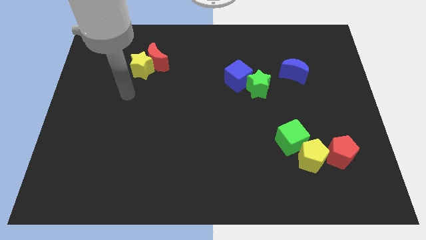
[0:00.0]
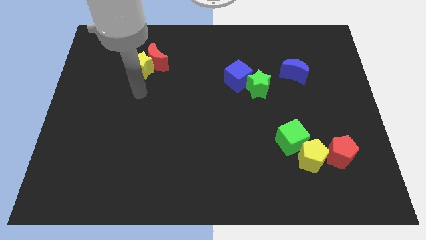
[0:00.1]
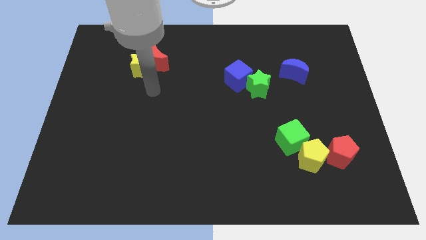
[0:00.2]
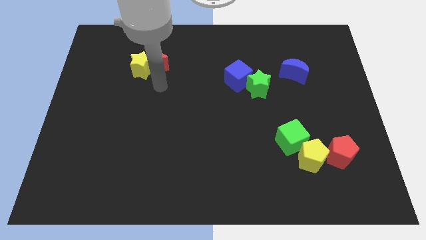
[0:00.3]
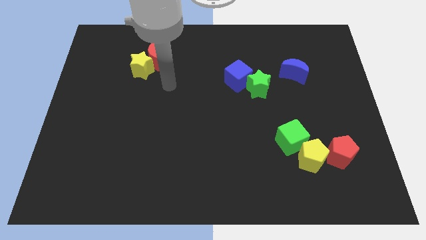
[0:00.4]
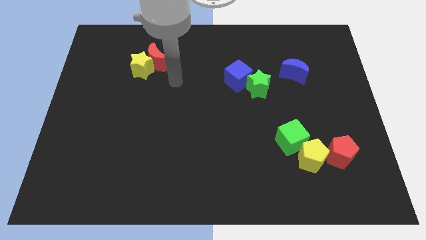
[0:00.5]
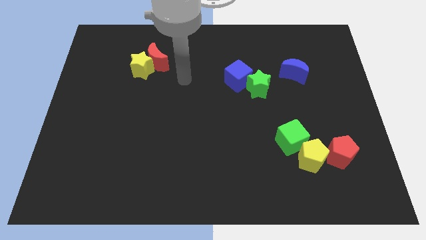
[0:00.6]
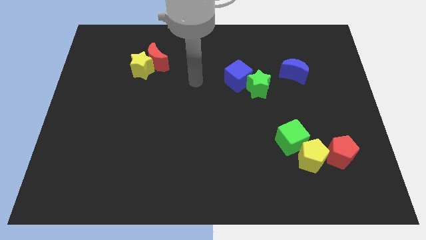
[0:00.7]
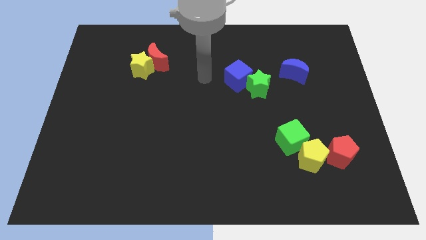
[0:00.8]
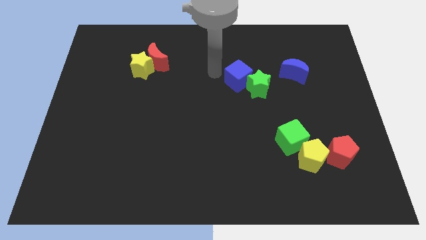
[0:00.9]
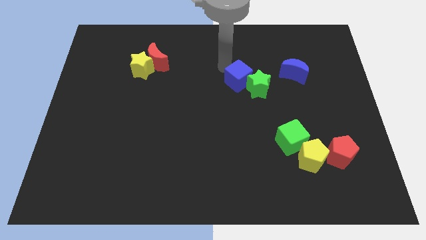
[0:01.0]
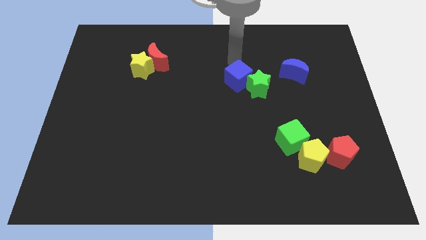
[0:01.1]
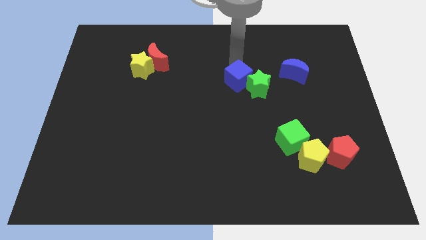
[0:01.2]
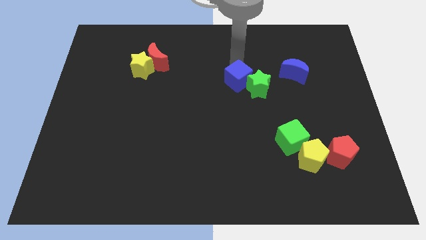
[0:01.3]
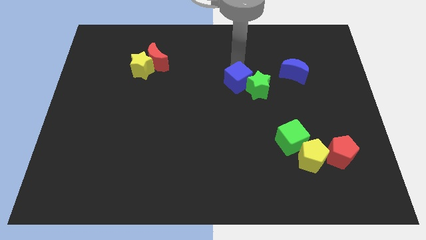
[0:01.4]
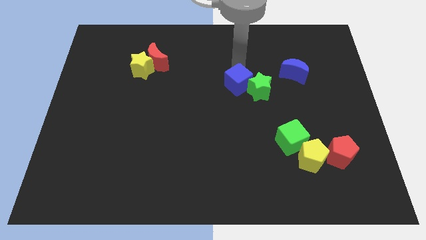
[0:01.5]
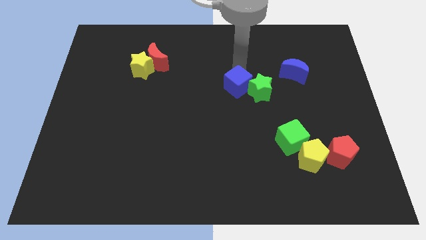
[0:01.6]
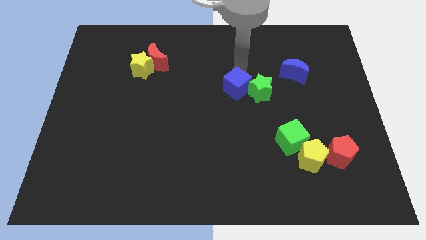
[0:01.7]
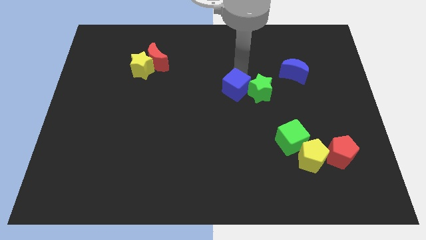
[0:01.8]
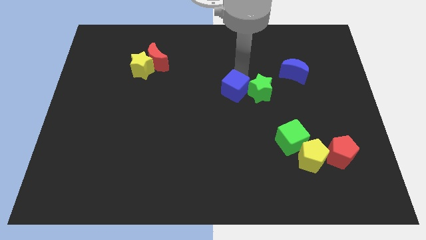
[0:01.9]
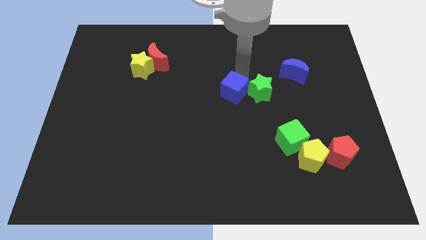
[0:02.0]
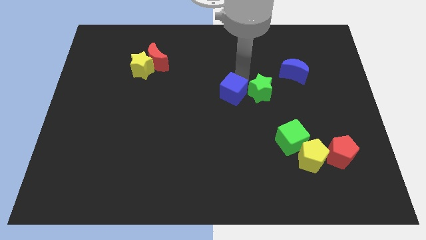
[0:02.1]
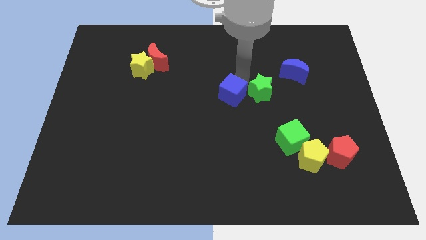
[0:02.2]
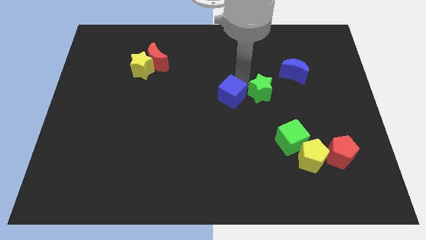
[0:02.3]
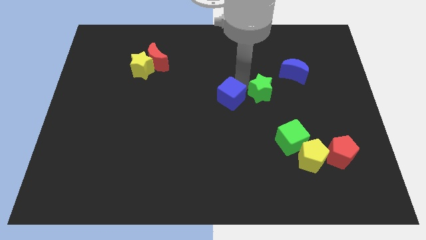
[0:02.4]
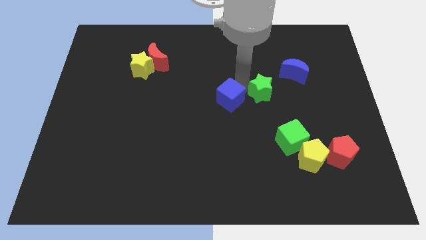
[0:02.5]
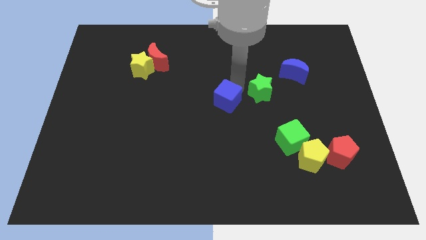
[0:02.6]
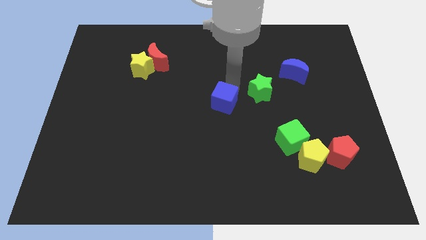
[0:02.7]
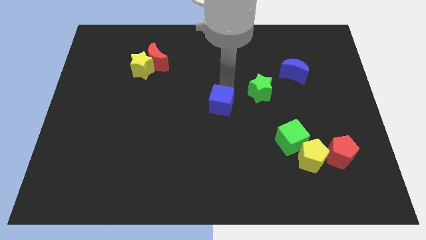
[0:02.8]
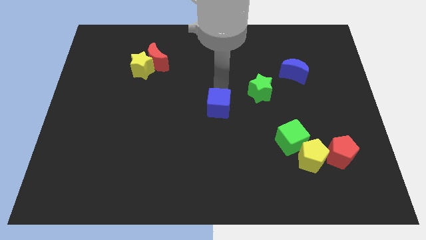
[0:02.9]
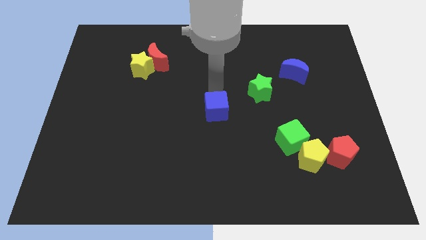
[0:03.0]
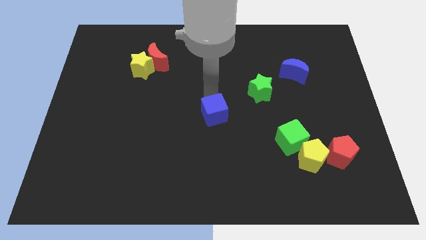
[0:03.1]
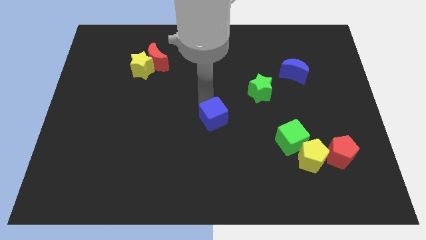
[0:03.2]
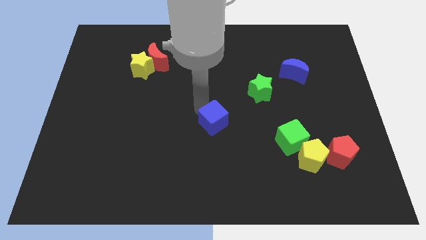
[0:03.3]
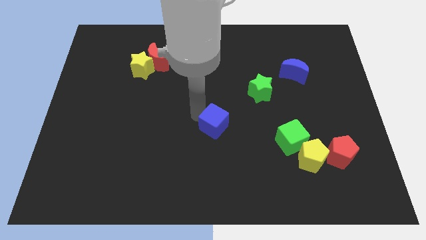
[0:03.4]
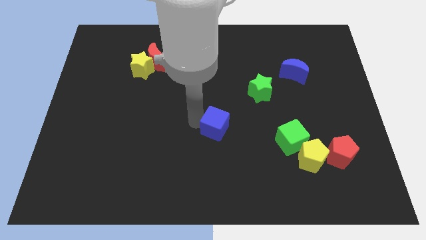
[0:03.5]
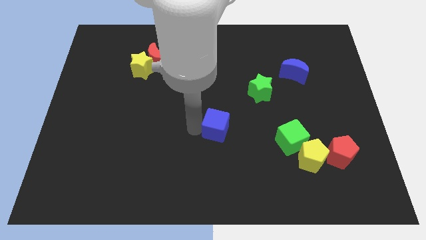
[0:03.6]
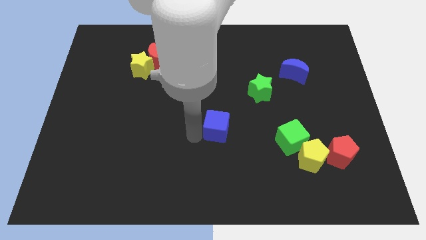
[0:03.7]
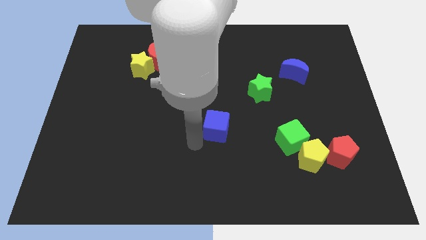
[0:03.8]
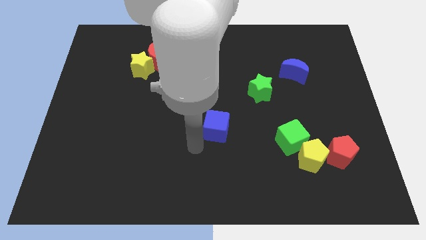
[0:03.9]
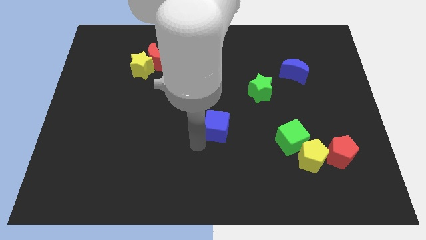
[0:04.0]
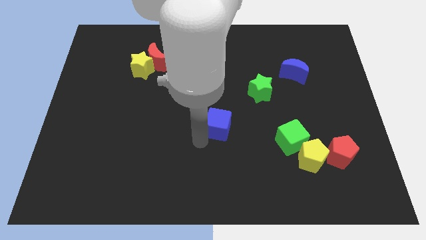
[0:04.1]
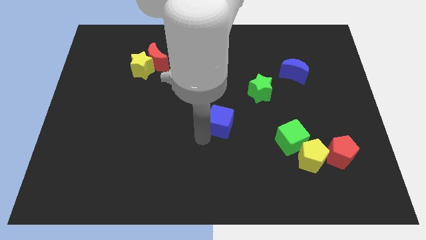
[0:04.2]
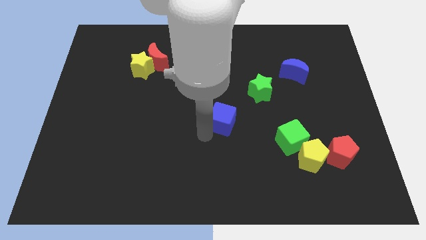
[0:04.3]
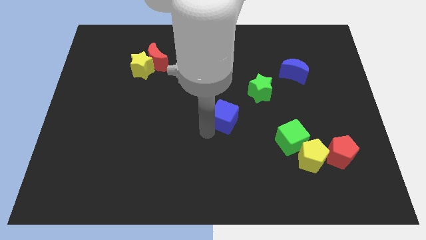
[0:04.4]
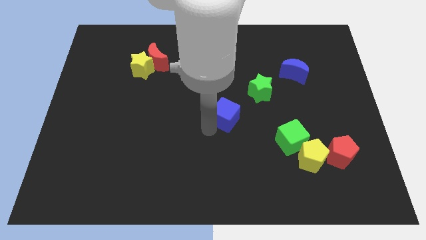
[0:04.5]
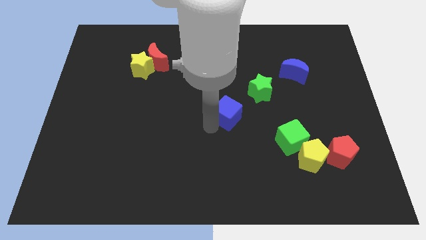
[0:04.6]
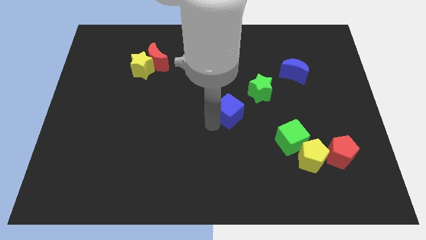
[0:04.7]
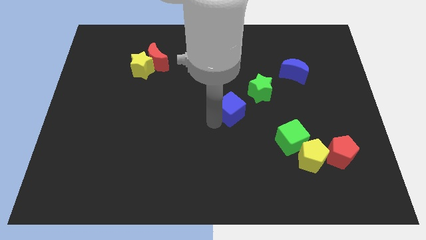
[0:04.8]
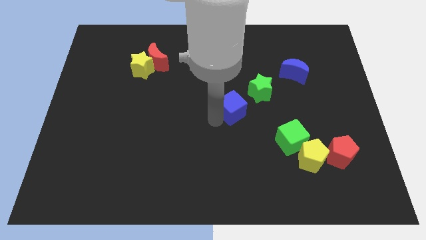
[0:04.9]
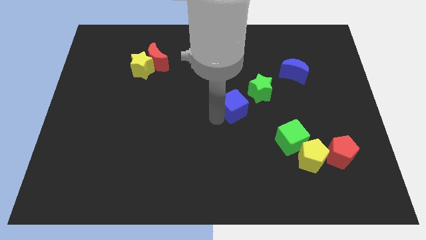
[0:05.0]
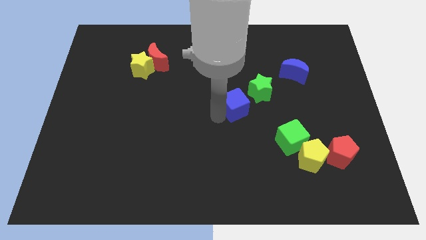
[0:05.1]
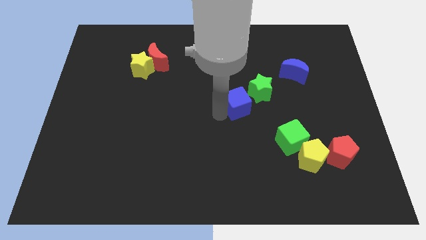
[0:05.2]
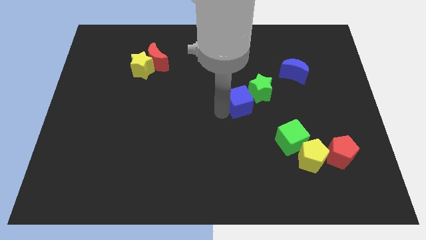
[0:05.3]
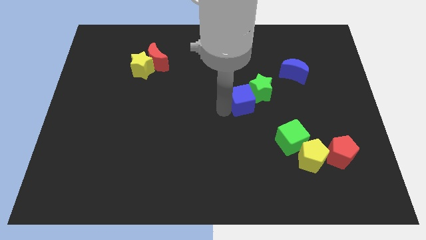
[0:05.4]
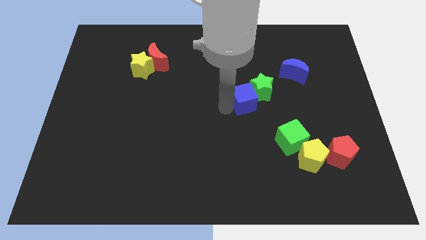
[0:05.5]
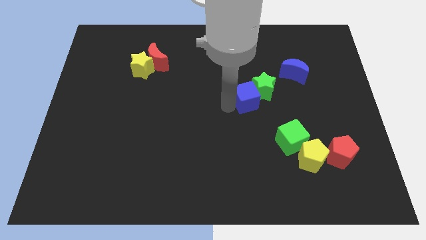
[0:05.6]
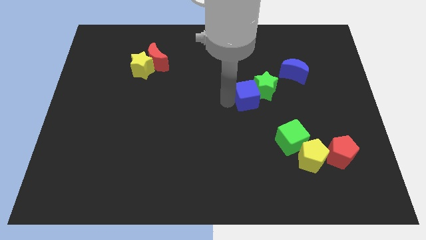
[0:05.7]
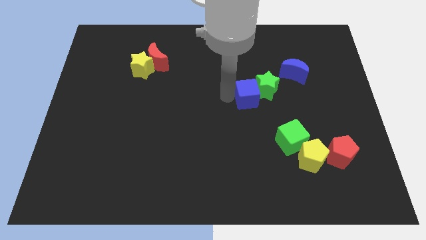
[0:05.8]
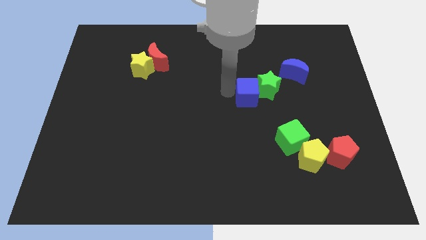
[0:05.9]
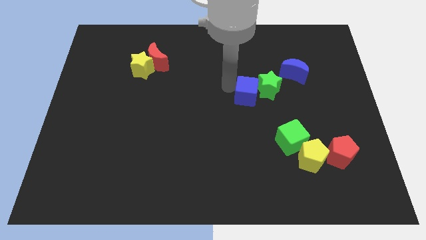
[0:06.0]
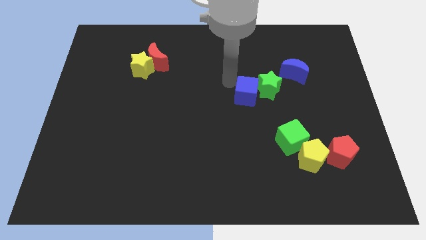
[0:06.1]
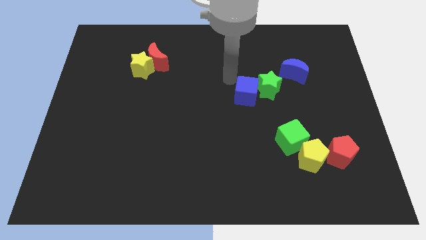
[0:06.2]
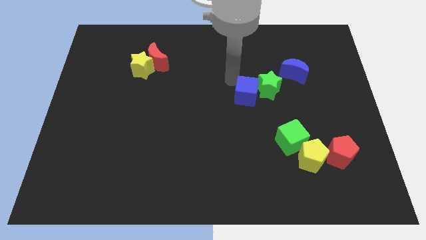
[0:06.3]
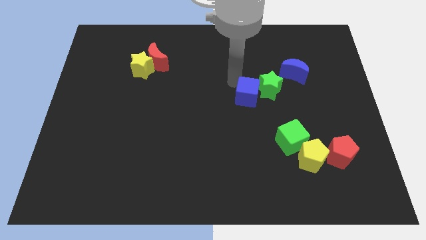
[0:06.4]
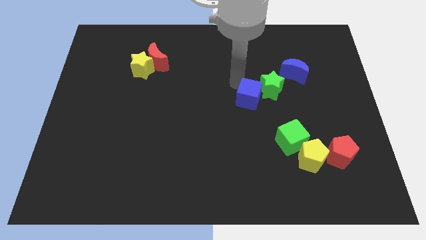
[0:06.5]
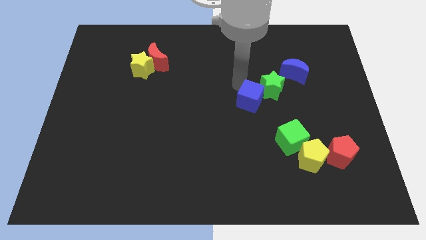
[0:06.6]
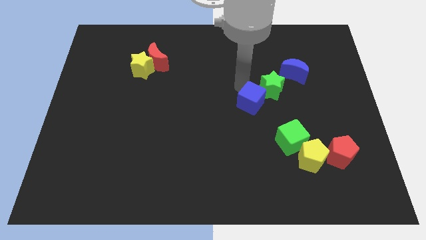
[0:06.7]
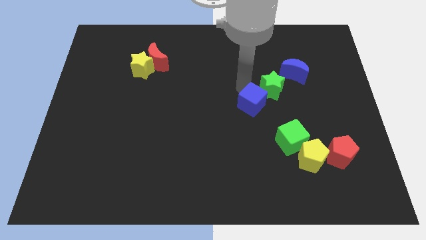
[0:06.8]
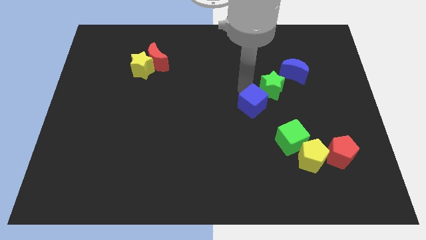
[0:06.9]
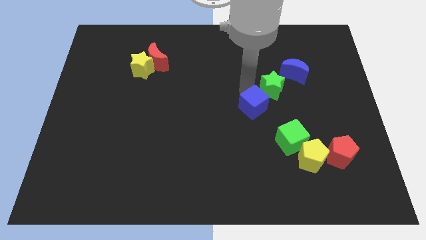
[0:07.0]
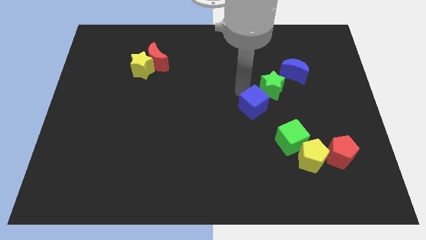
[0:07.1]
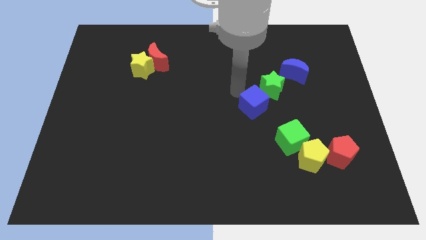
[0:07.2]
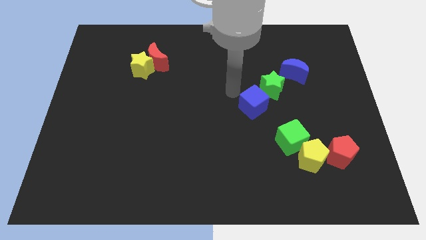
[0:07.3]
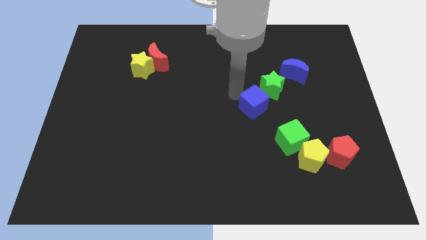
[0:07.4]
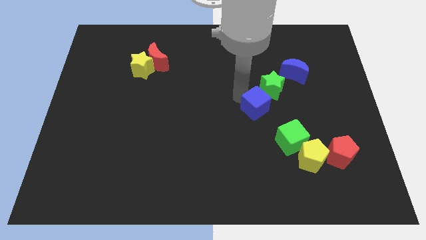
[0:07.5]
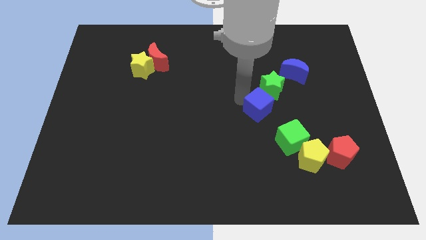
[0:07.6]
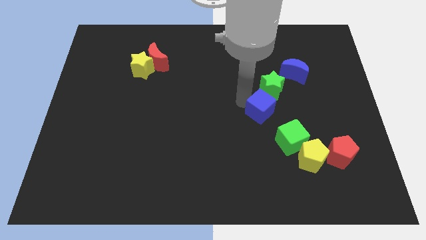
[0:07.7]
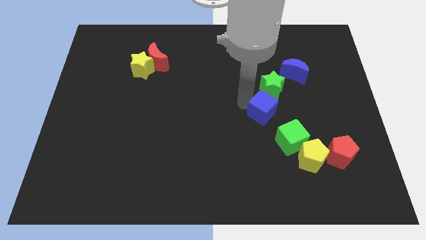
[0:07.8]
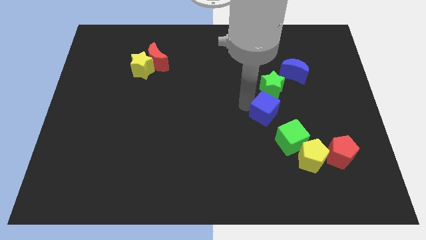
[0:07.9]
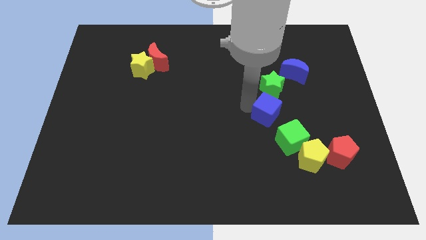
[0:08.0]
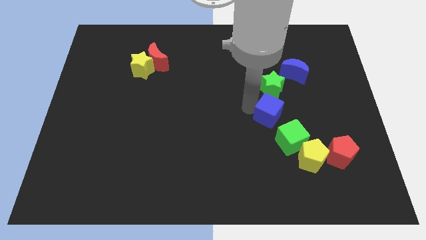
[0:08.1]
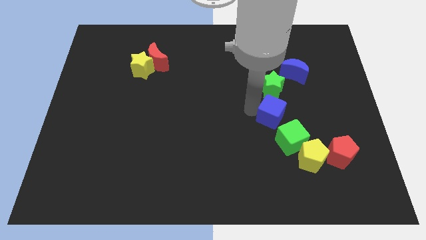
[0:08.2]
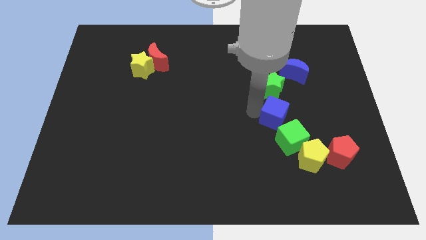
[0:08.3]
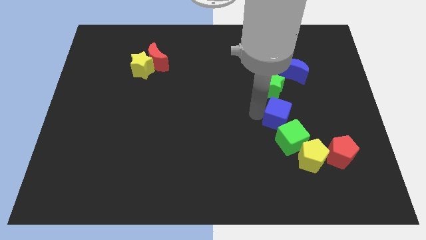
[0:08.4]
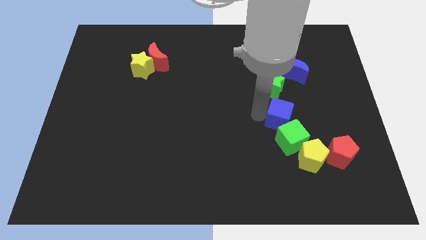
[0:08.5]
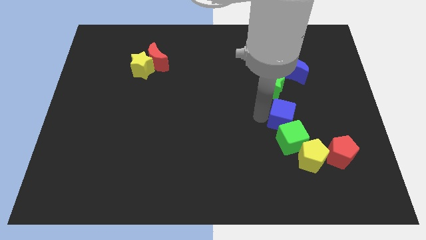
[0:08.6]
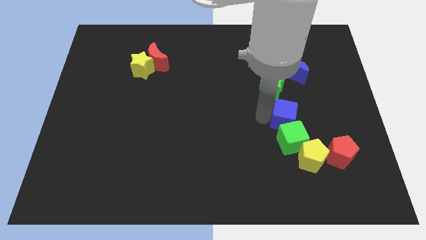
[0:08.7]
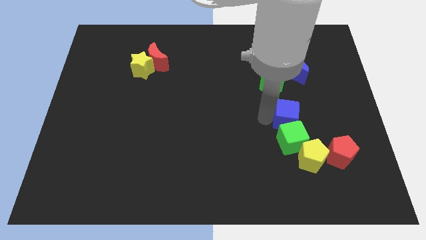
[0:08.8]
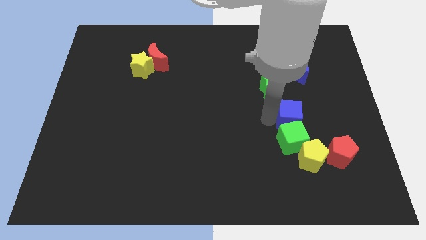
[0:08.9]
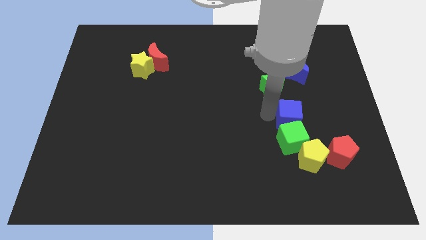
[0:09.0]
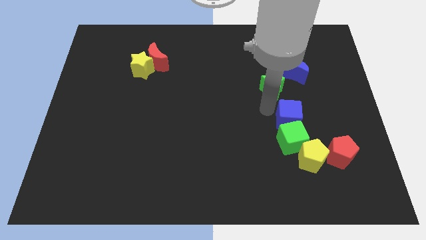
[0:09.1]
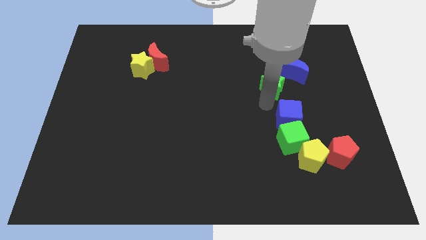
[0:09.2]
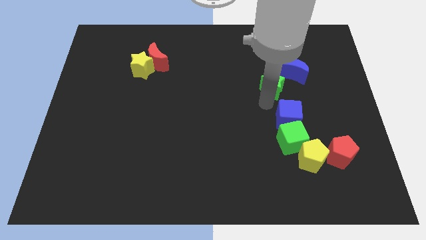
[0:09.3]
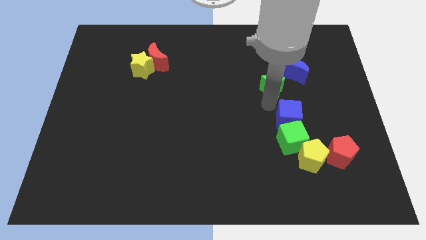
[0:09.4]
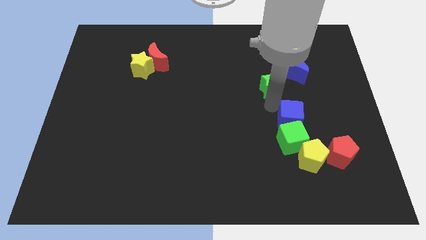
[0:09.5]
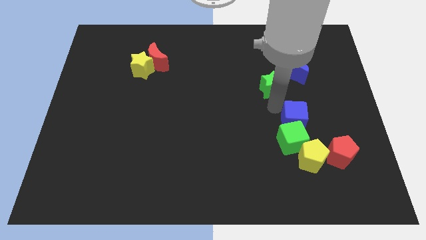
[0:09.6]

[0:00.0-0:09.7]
move the blue cube diagonally up and to the left of the red pentagon
